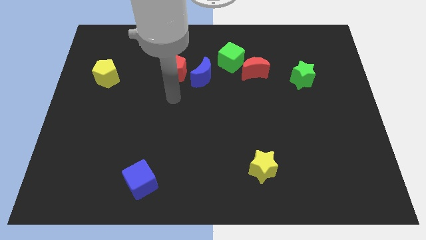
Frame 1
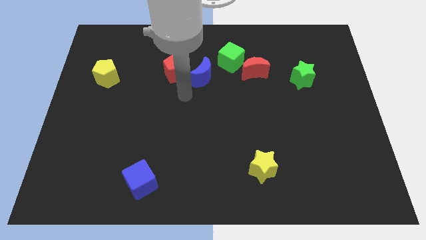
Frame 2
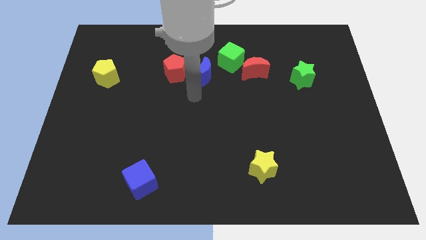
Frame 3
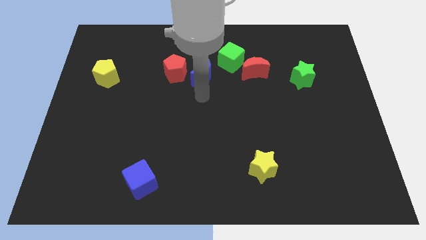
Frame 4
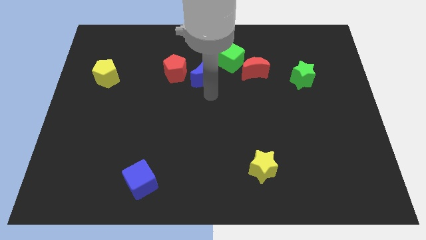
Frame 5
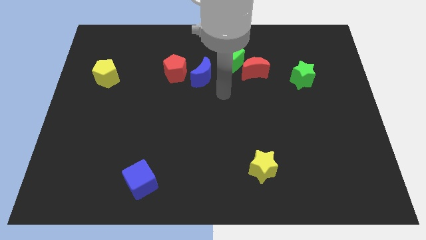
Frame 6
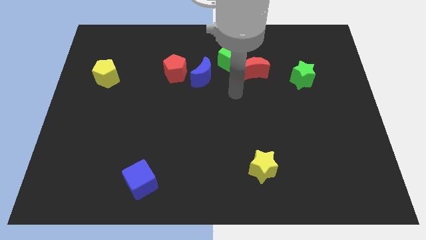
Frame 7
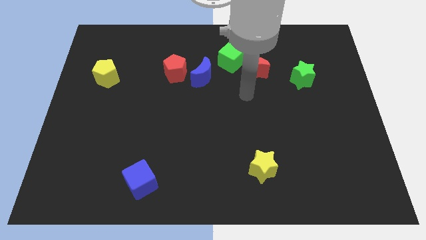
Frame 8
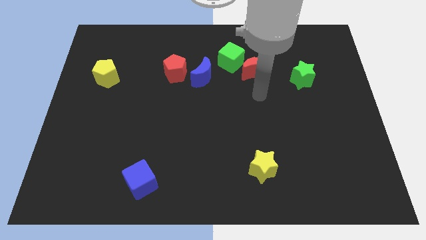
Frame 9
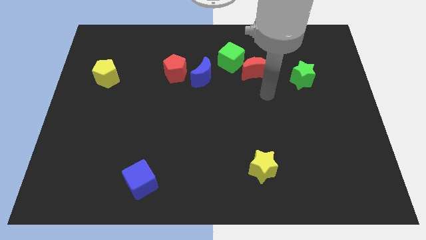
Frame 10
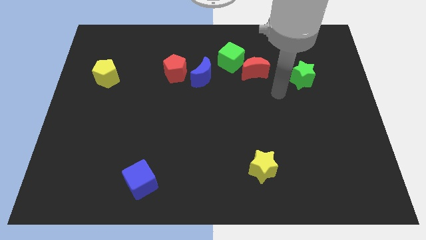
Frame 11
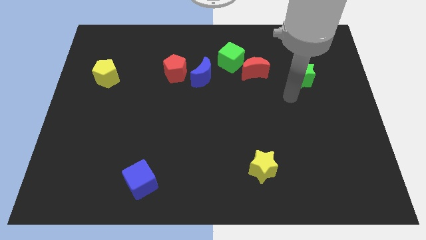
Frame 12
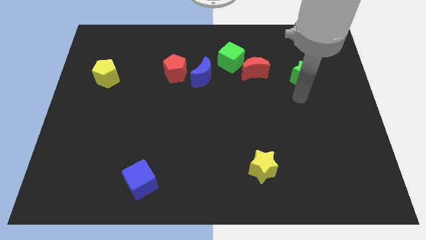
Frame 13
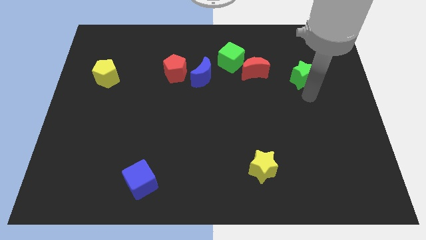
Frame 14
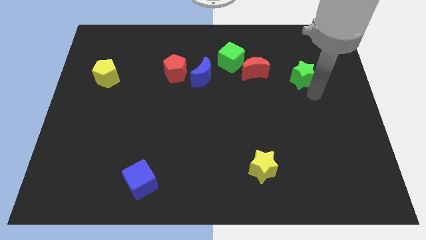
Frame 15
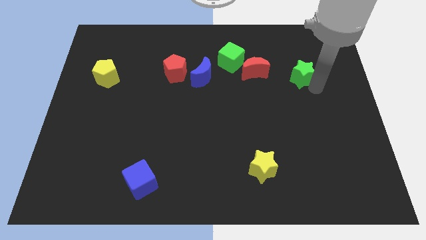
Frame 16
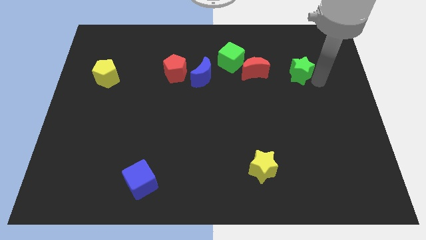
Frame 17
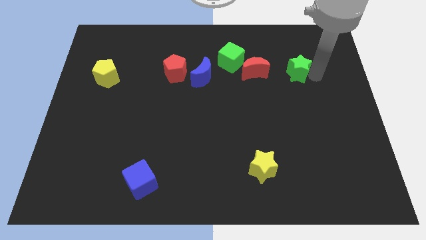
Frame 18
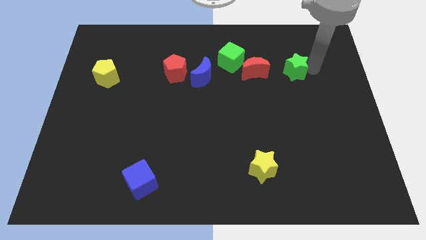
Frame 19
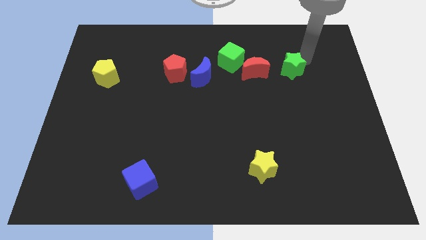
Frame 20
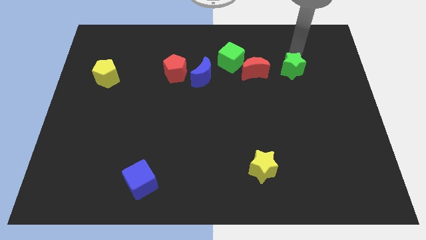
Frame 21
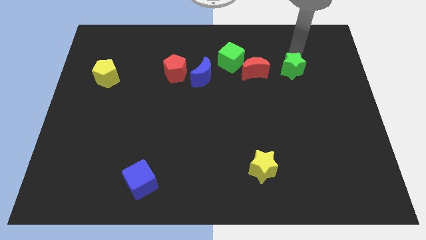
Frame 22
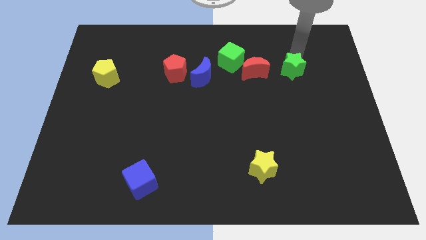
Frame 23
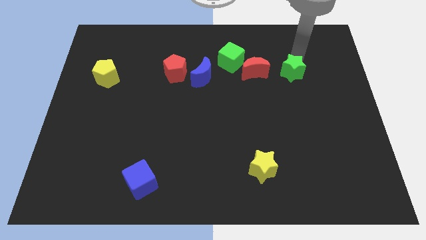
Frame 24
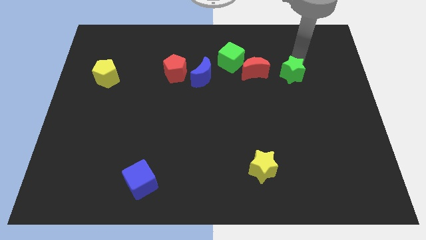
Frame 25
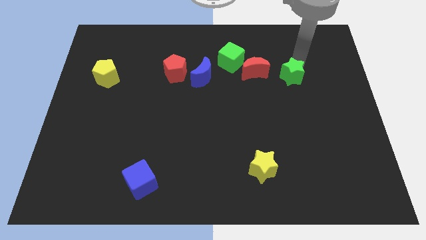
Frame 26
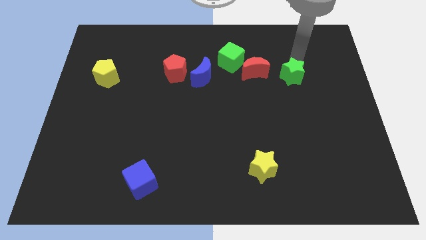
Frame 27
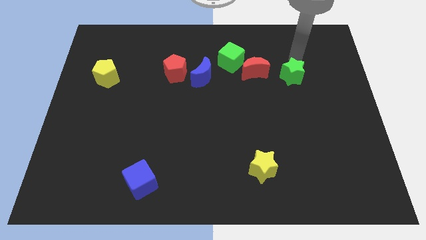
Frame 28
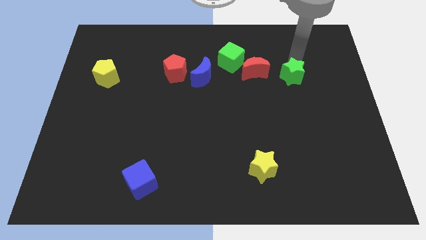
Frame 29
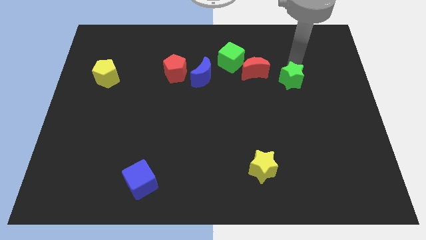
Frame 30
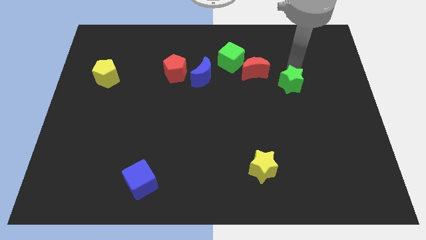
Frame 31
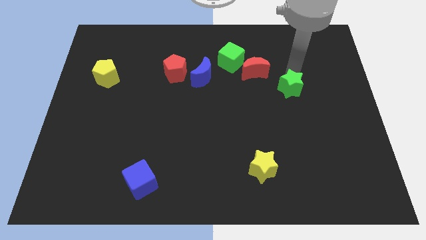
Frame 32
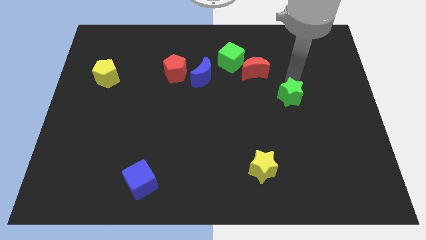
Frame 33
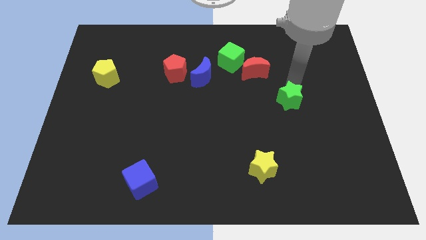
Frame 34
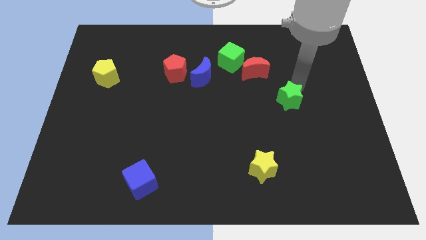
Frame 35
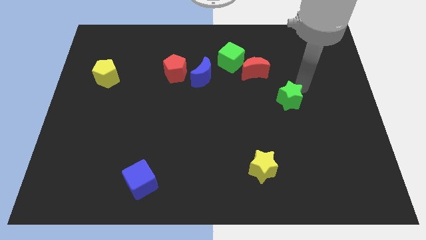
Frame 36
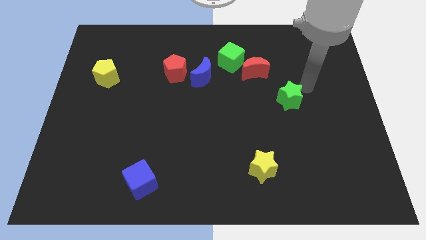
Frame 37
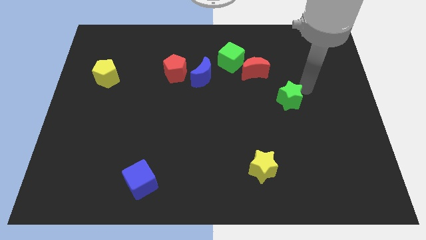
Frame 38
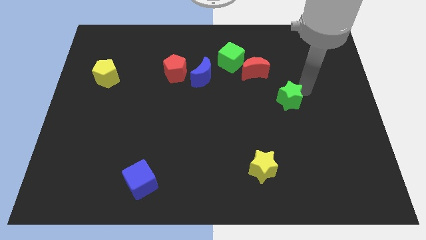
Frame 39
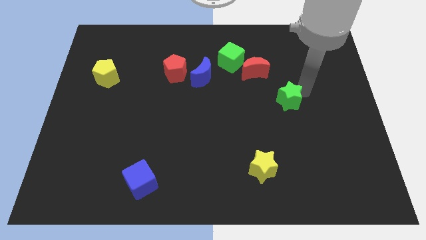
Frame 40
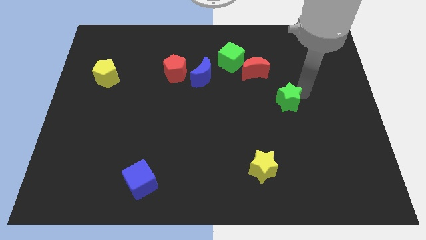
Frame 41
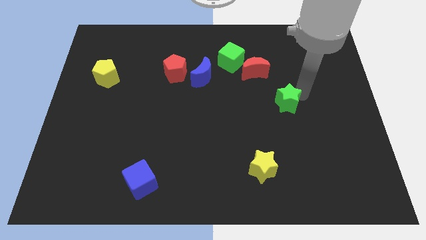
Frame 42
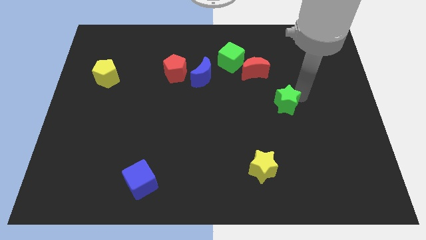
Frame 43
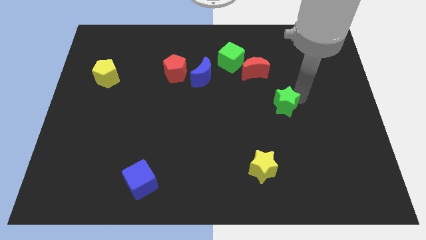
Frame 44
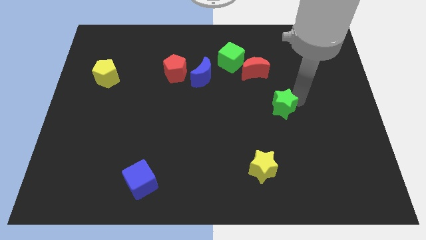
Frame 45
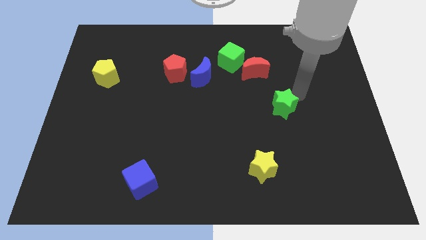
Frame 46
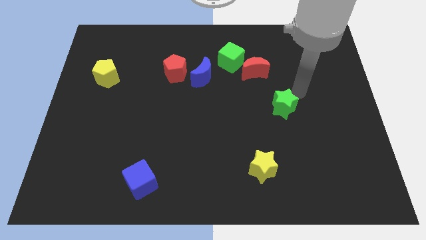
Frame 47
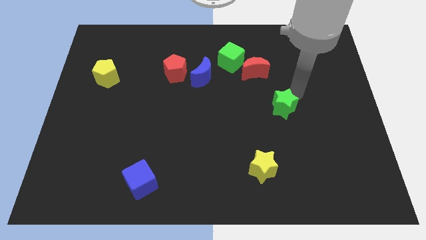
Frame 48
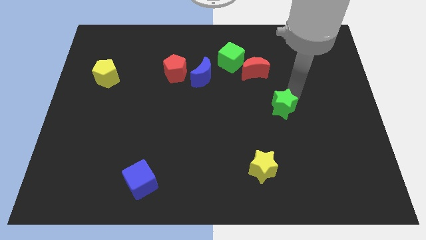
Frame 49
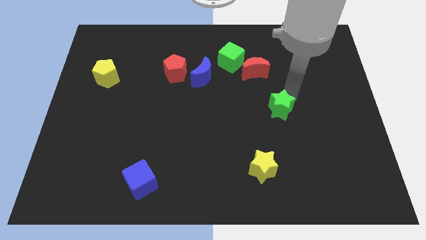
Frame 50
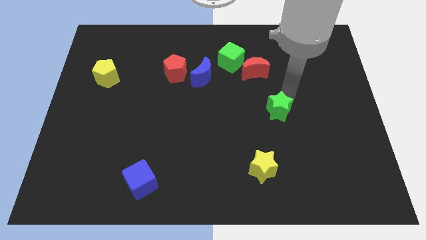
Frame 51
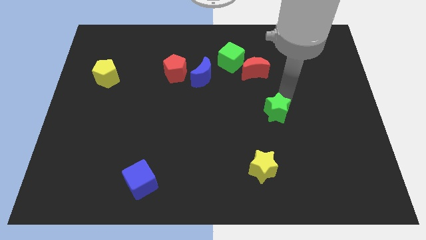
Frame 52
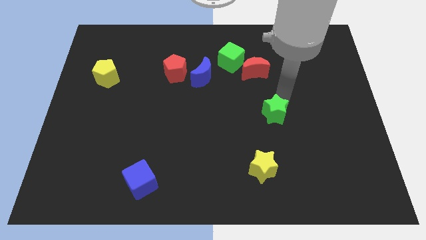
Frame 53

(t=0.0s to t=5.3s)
push the green star above the yellow star

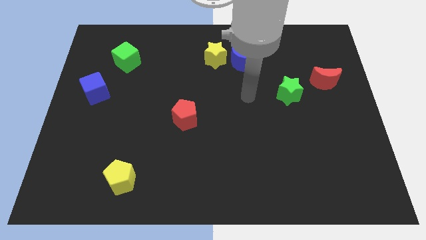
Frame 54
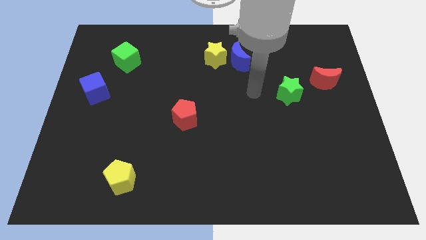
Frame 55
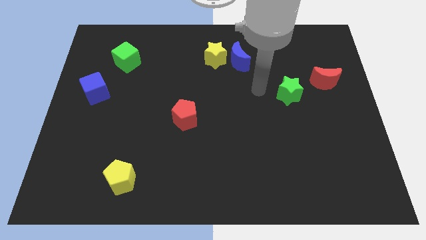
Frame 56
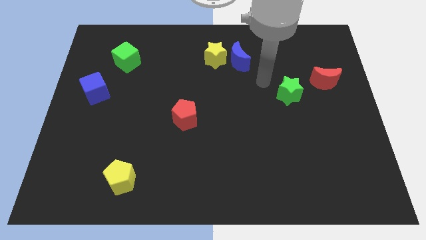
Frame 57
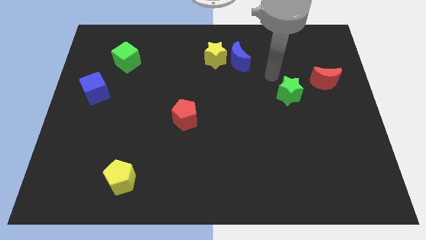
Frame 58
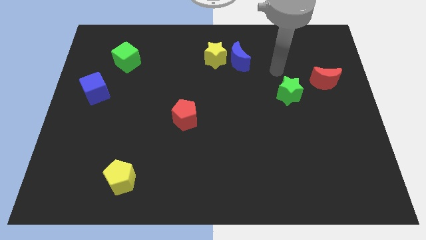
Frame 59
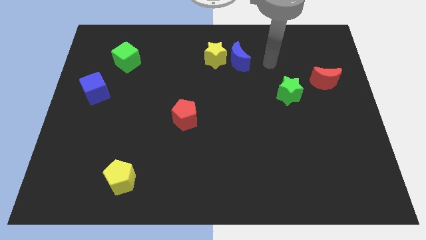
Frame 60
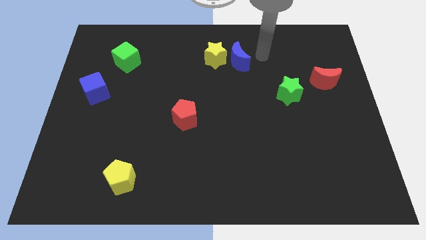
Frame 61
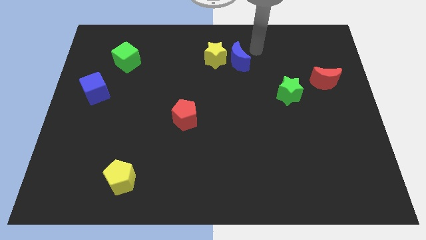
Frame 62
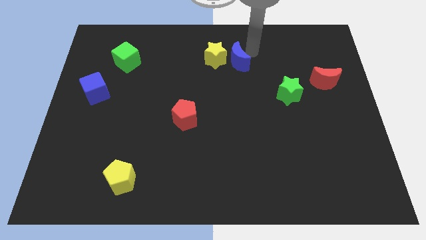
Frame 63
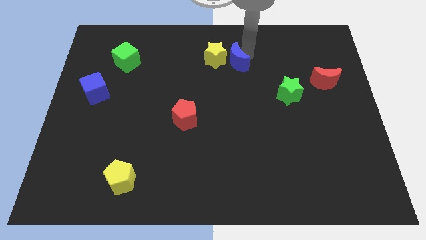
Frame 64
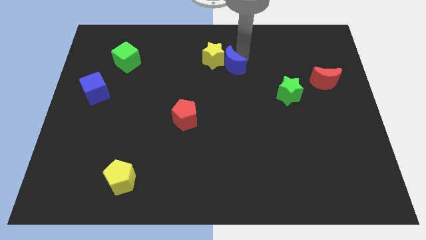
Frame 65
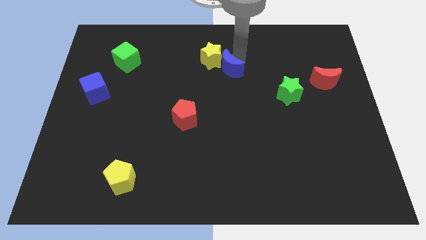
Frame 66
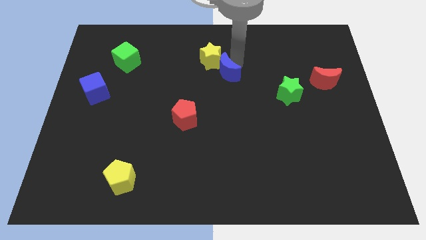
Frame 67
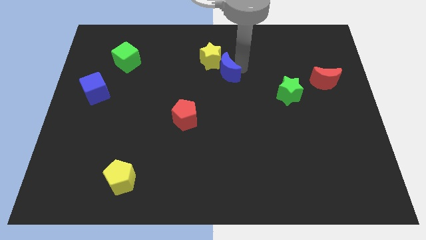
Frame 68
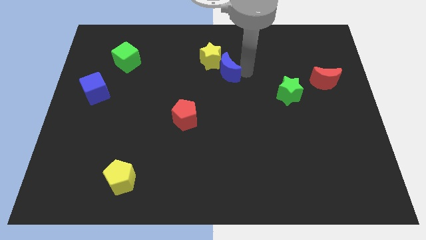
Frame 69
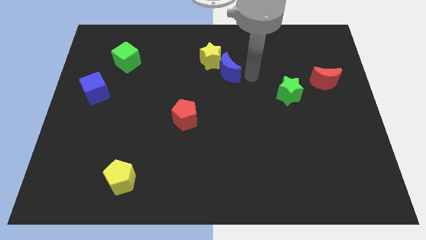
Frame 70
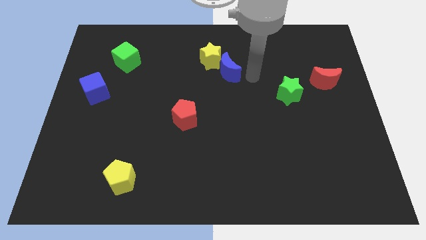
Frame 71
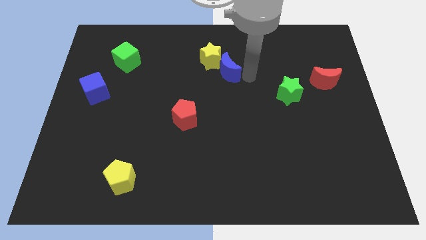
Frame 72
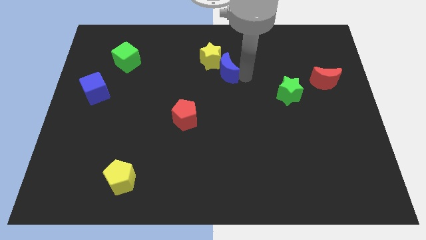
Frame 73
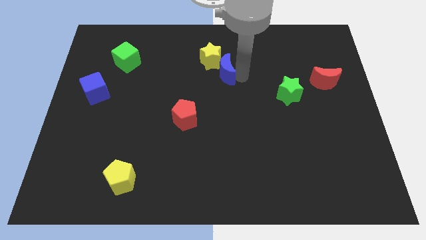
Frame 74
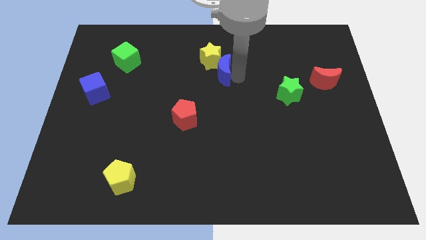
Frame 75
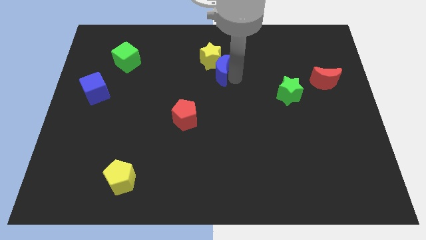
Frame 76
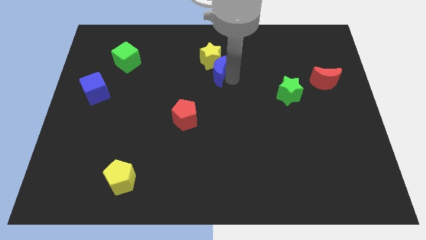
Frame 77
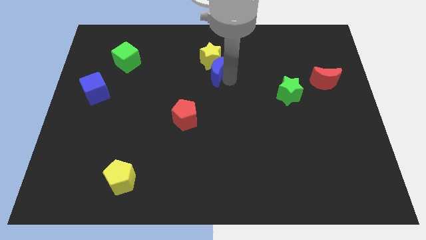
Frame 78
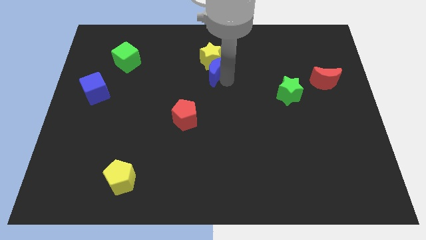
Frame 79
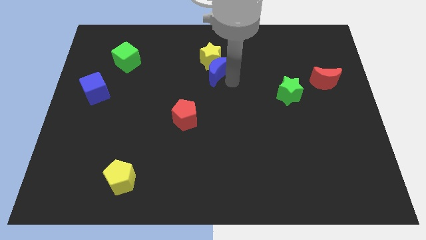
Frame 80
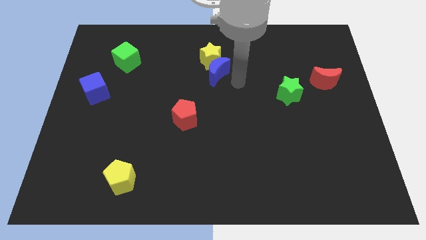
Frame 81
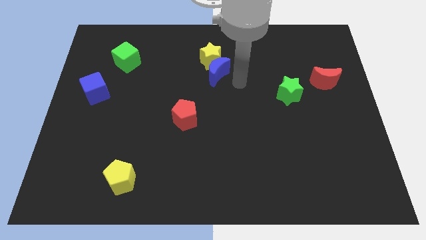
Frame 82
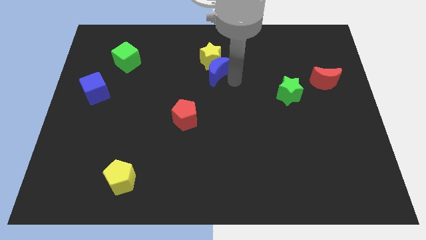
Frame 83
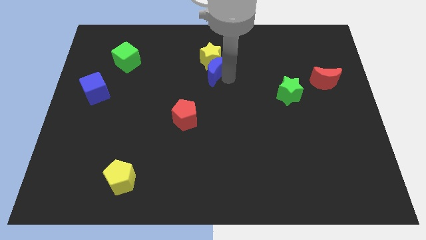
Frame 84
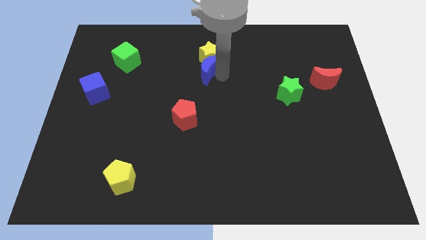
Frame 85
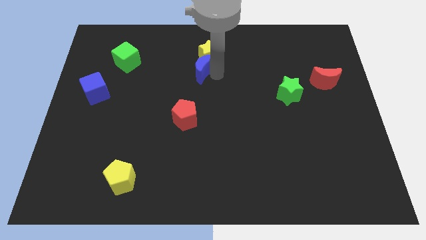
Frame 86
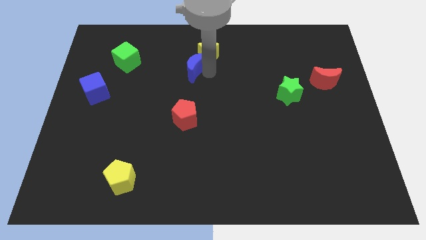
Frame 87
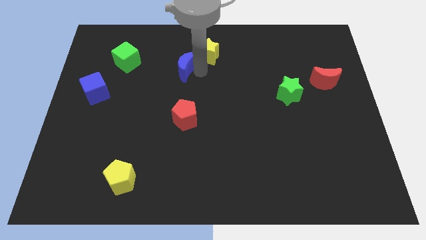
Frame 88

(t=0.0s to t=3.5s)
put the blue moon to the left side of the yellow star
